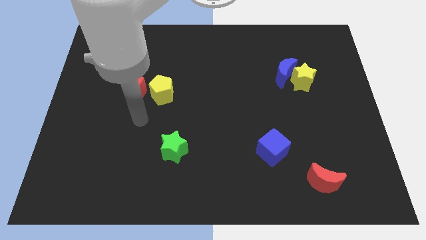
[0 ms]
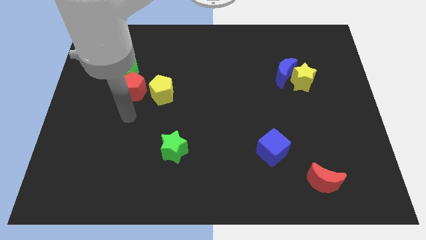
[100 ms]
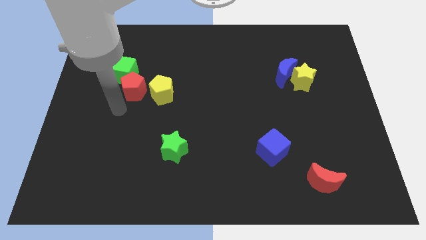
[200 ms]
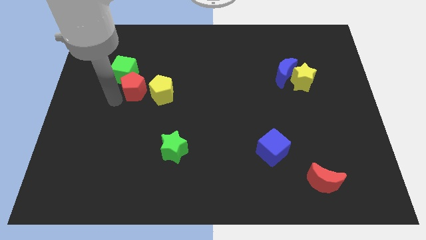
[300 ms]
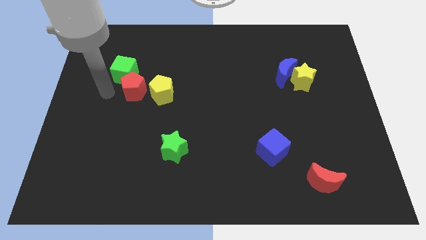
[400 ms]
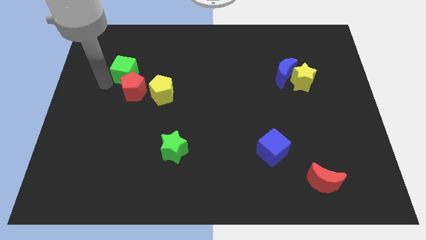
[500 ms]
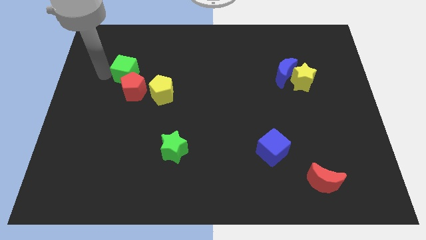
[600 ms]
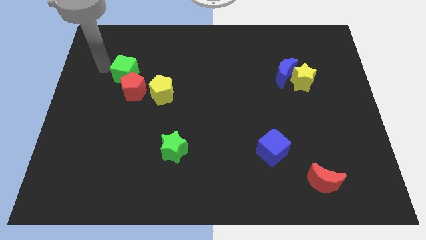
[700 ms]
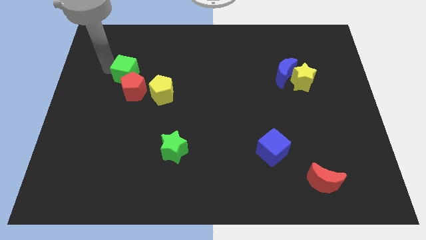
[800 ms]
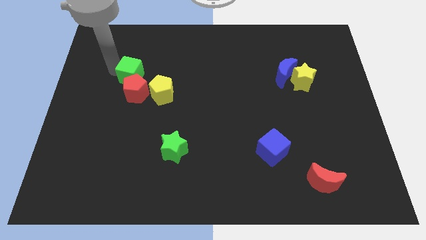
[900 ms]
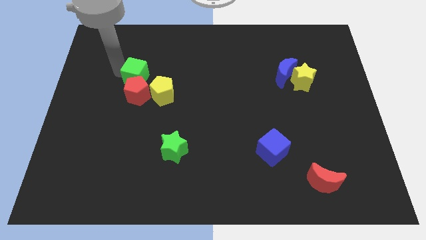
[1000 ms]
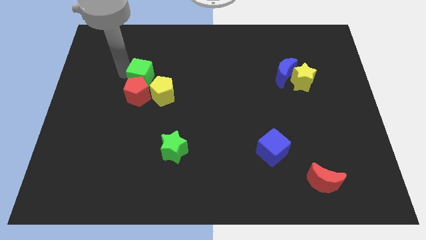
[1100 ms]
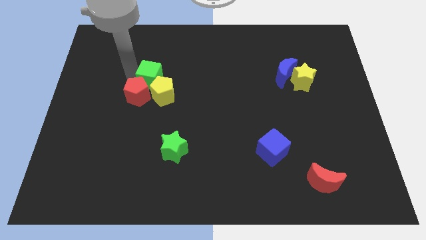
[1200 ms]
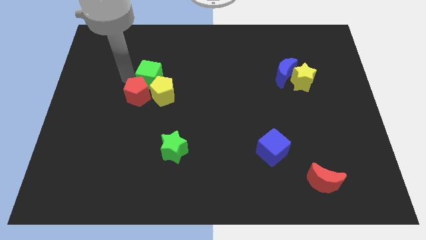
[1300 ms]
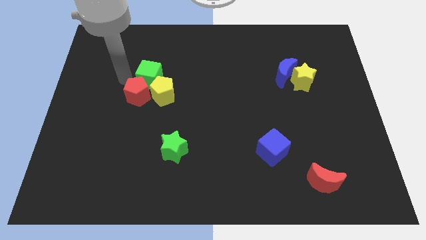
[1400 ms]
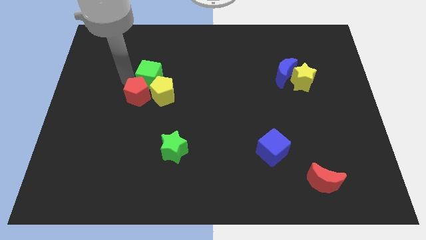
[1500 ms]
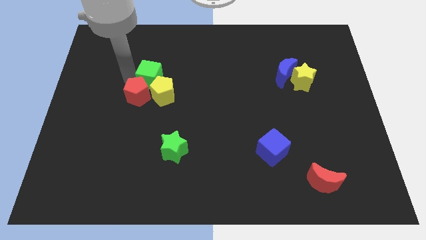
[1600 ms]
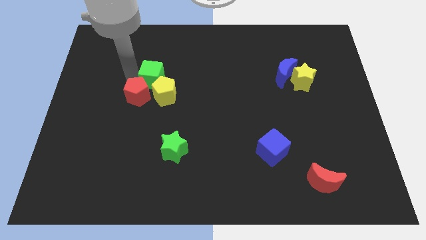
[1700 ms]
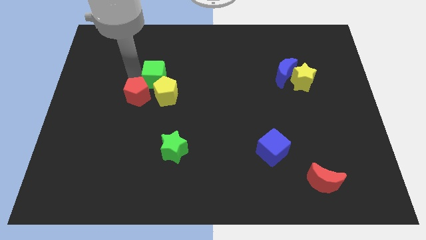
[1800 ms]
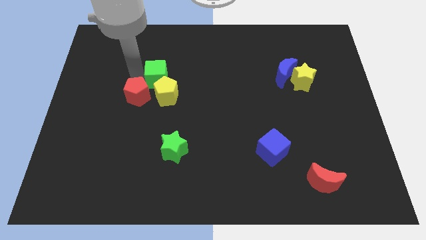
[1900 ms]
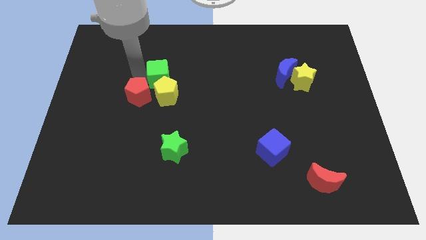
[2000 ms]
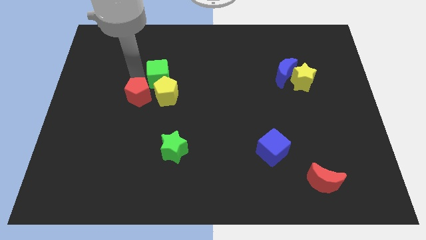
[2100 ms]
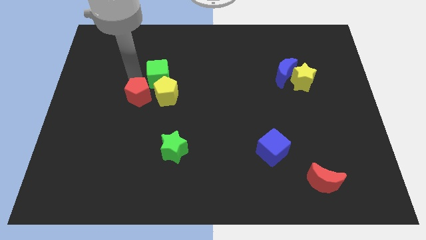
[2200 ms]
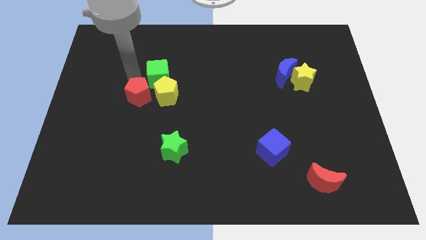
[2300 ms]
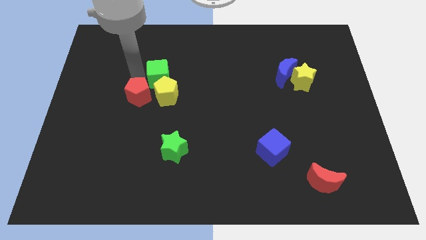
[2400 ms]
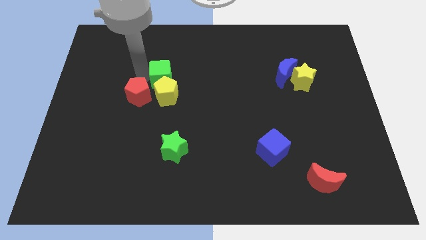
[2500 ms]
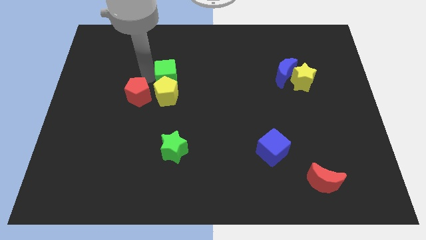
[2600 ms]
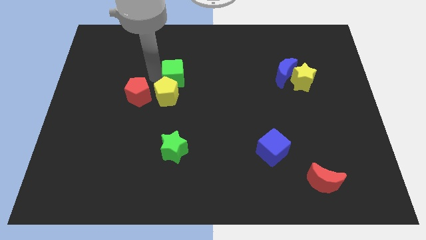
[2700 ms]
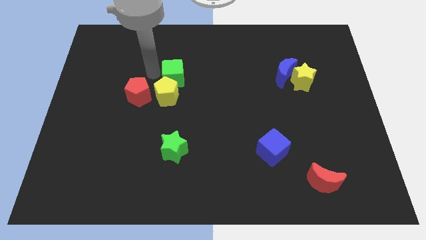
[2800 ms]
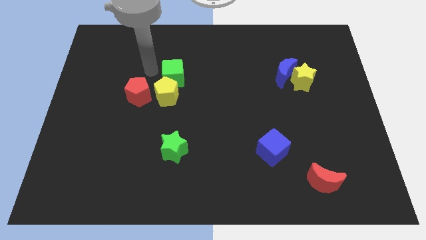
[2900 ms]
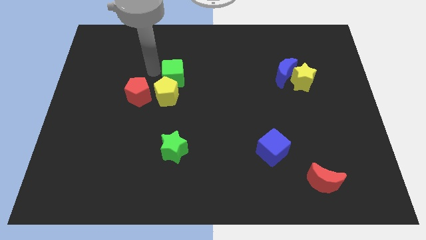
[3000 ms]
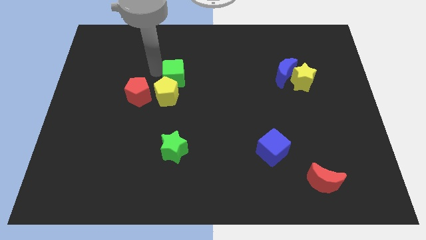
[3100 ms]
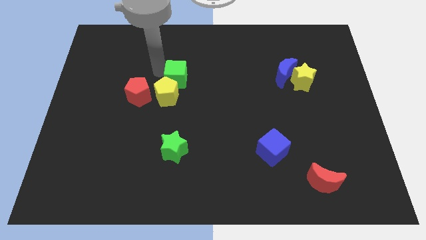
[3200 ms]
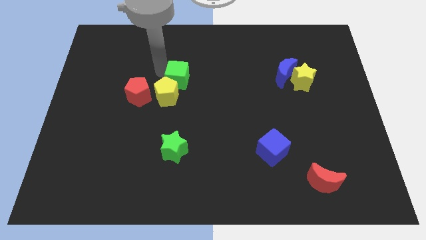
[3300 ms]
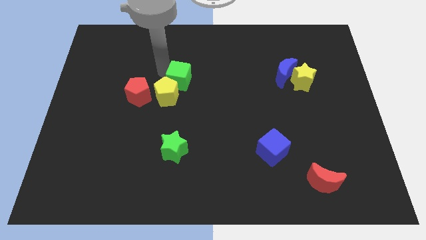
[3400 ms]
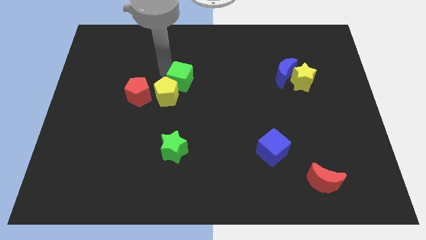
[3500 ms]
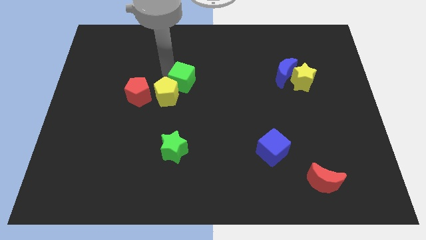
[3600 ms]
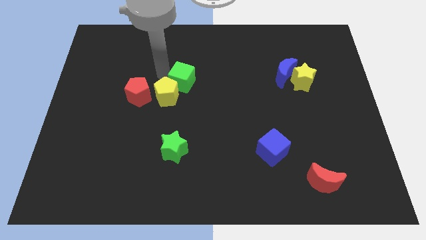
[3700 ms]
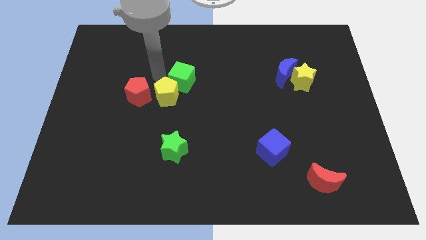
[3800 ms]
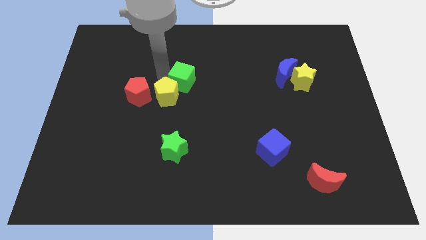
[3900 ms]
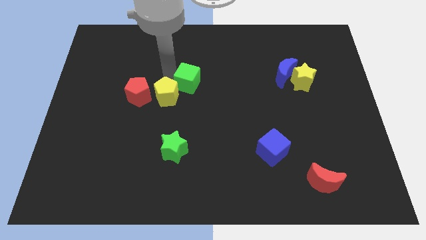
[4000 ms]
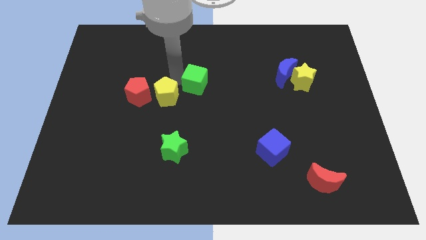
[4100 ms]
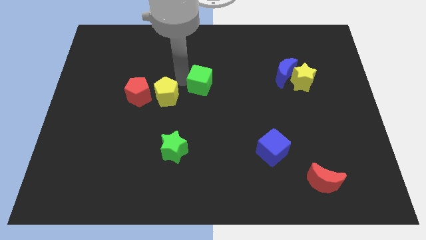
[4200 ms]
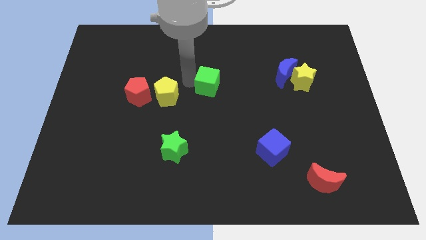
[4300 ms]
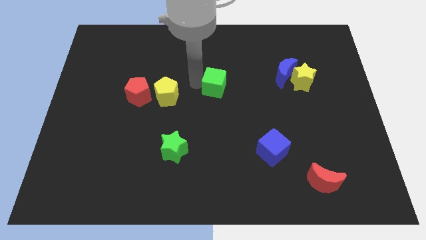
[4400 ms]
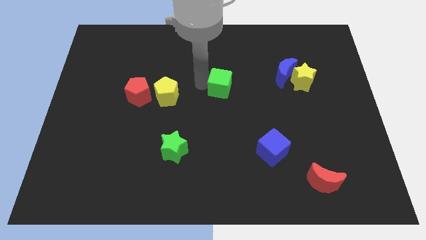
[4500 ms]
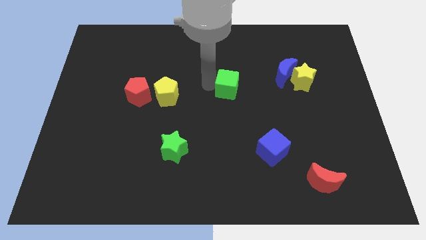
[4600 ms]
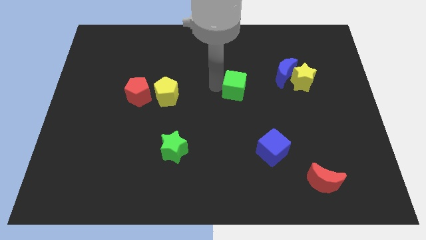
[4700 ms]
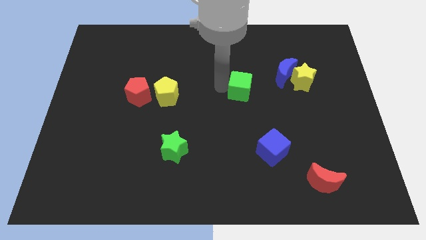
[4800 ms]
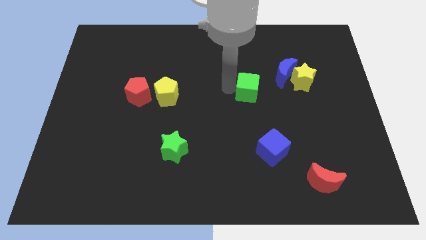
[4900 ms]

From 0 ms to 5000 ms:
put the green cube to the bottom left of the blue moon

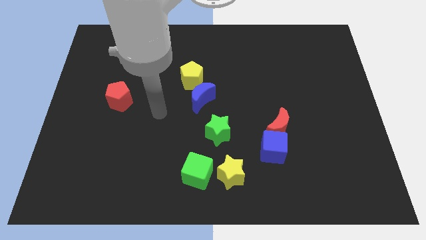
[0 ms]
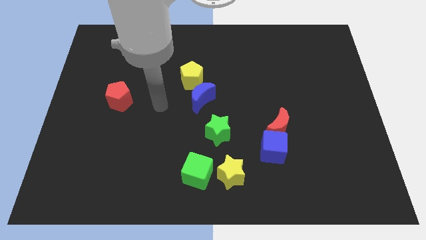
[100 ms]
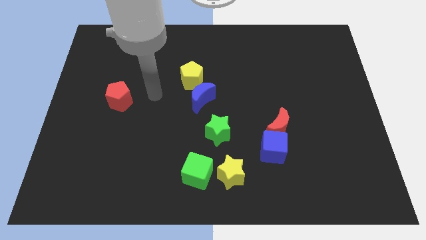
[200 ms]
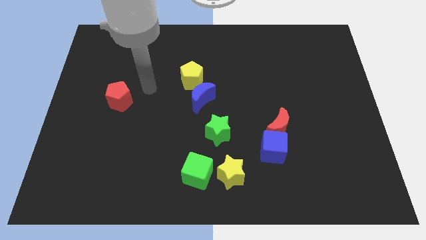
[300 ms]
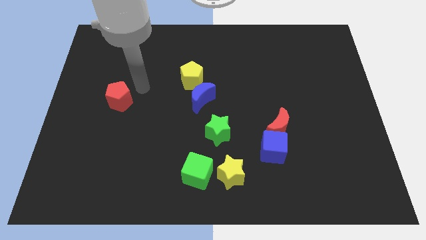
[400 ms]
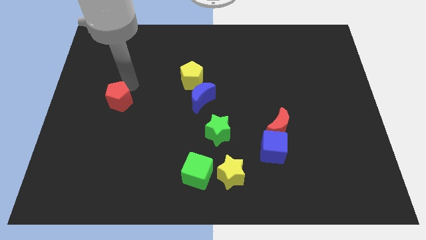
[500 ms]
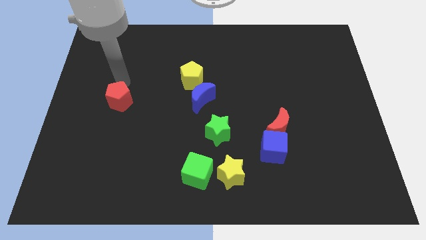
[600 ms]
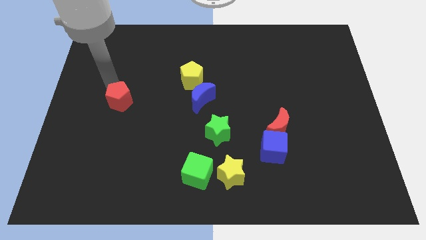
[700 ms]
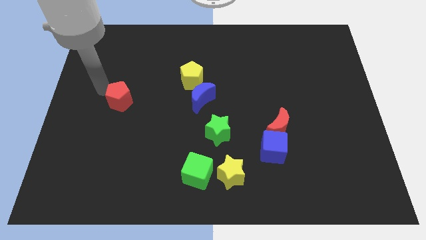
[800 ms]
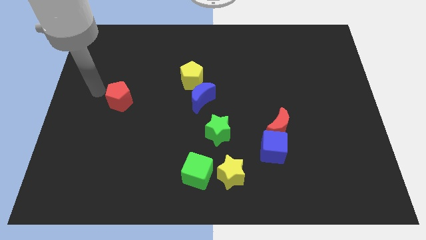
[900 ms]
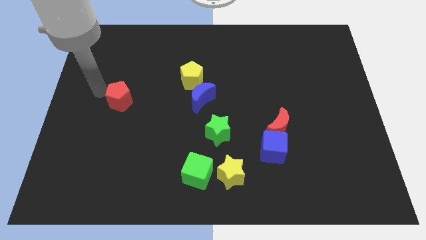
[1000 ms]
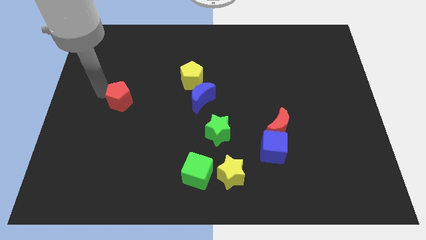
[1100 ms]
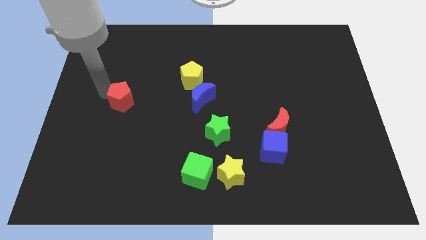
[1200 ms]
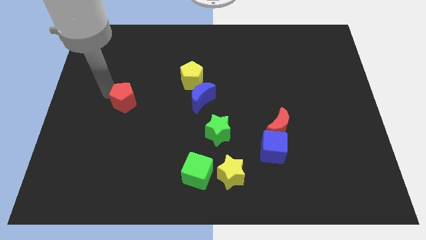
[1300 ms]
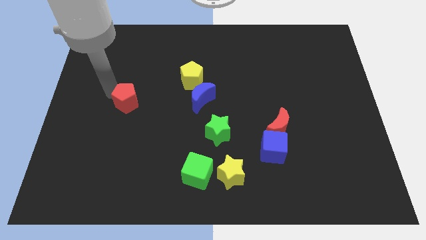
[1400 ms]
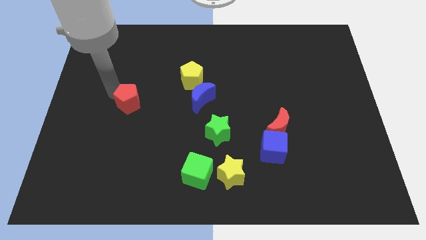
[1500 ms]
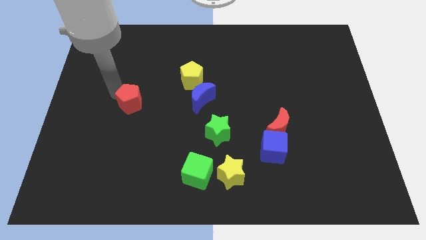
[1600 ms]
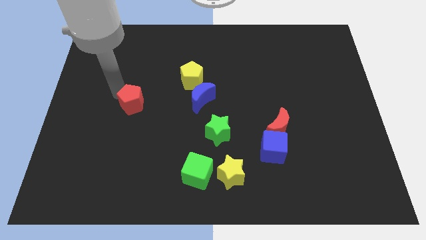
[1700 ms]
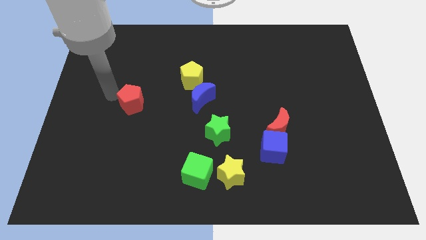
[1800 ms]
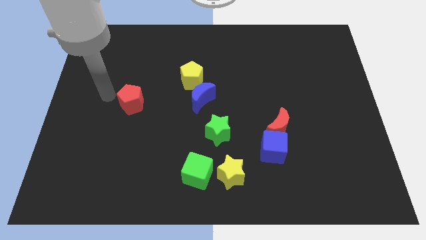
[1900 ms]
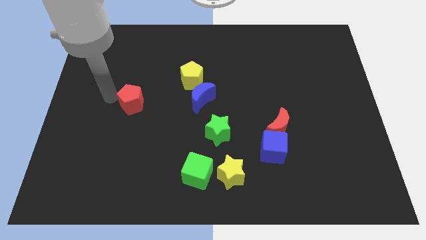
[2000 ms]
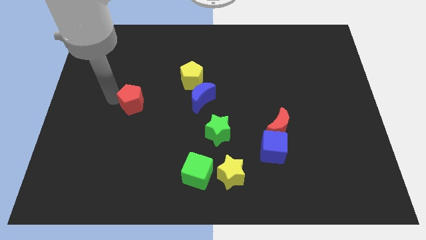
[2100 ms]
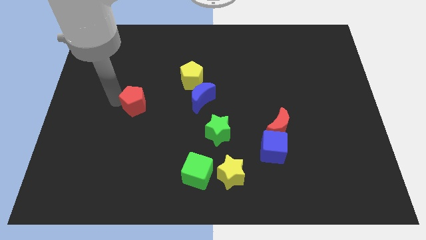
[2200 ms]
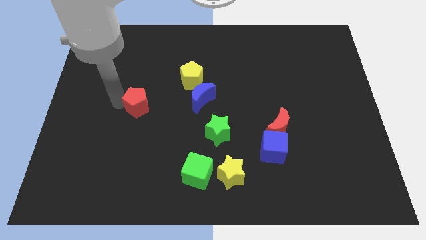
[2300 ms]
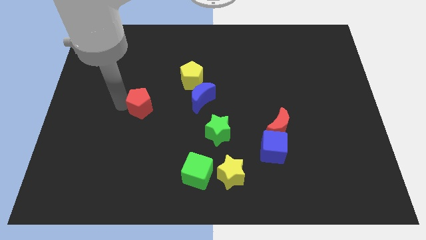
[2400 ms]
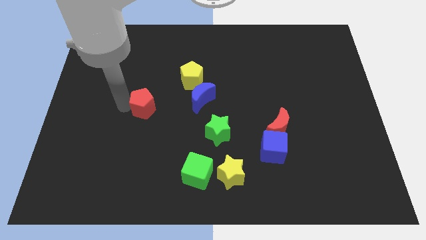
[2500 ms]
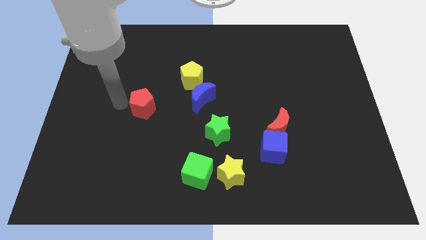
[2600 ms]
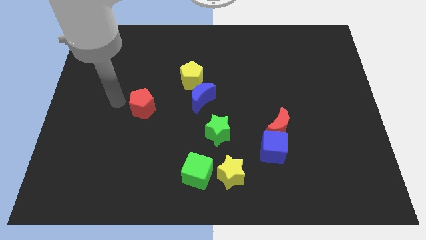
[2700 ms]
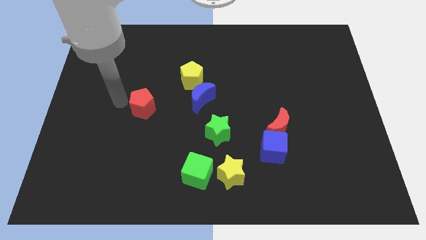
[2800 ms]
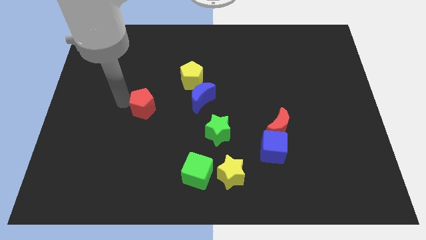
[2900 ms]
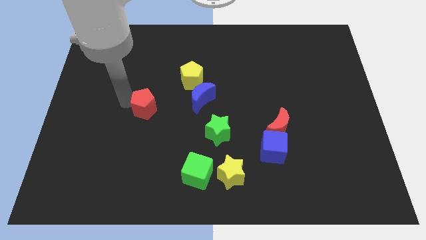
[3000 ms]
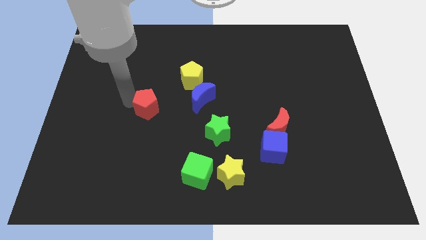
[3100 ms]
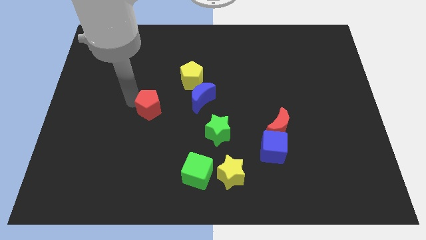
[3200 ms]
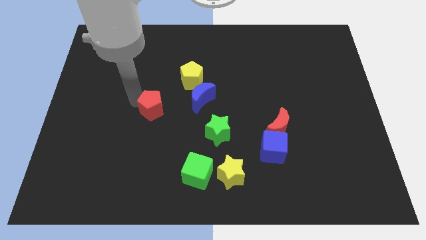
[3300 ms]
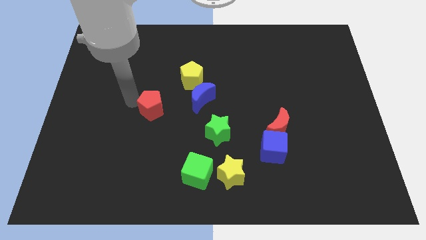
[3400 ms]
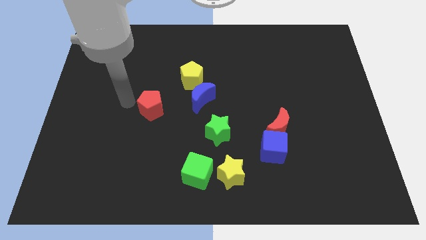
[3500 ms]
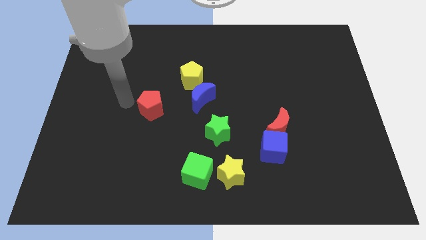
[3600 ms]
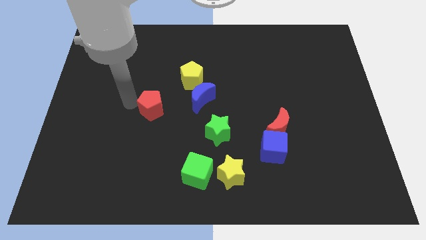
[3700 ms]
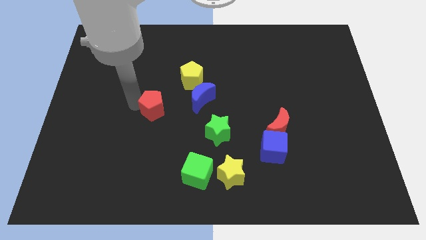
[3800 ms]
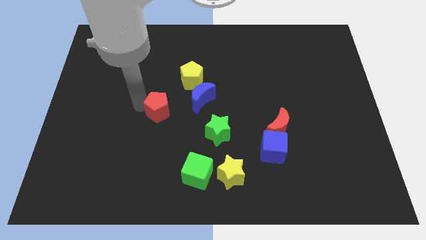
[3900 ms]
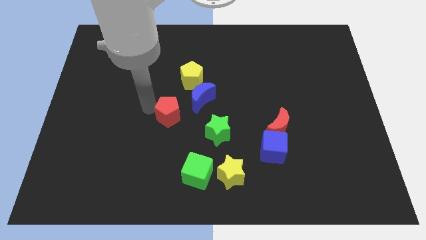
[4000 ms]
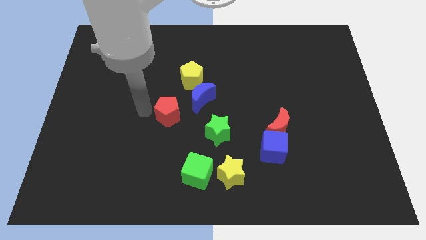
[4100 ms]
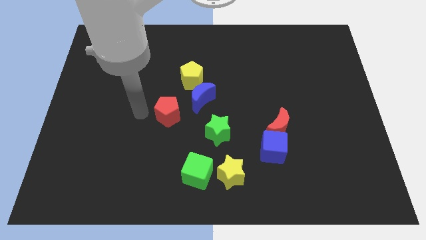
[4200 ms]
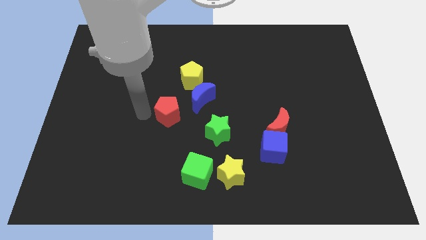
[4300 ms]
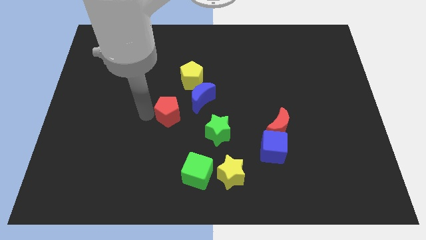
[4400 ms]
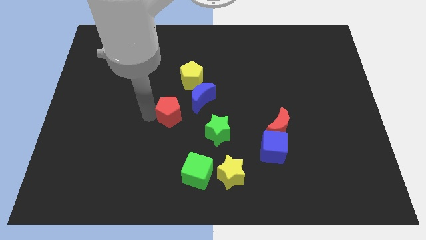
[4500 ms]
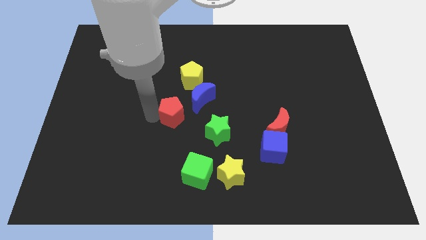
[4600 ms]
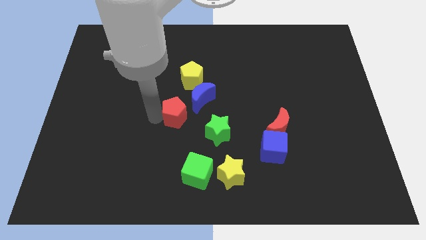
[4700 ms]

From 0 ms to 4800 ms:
put the red pentagon to the top left side of the green star
